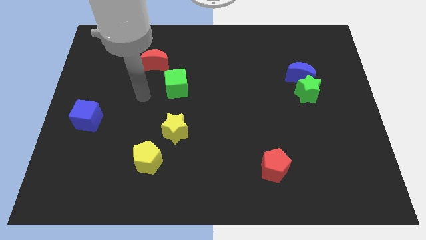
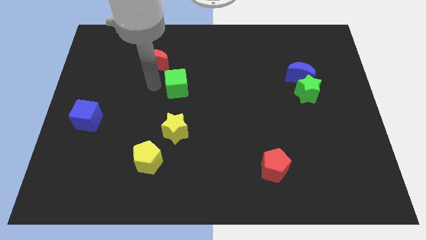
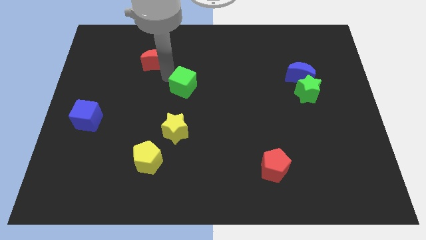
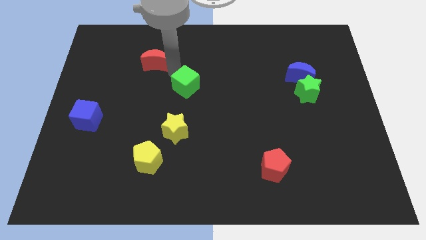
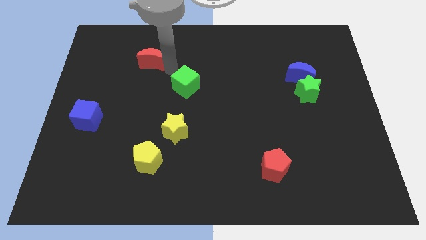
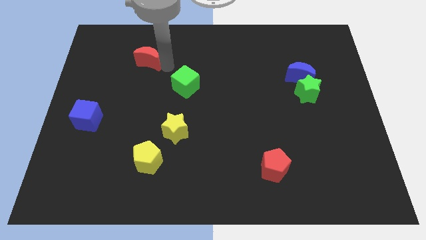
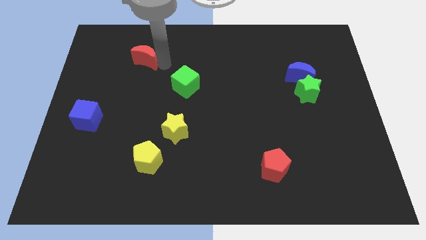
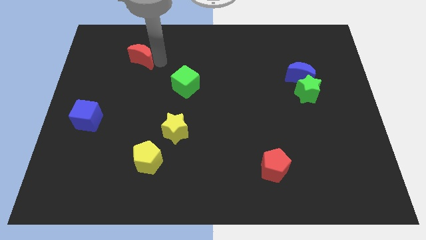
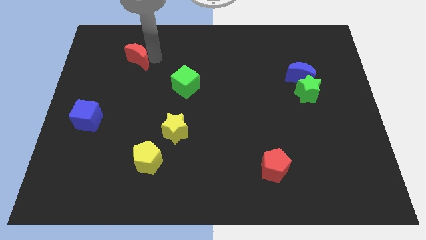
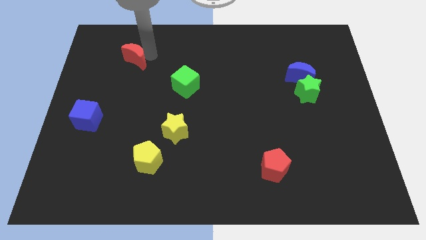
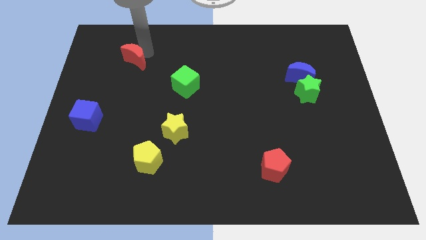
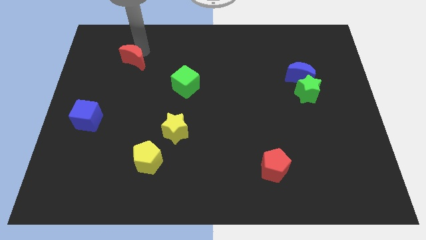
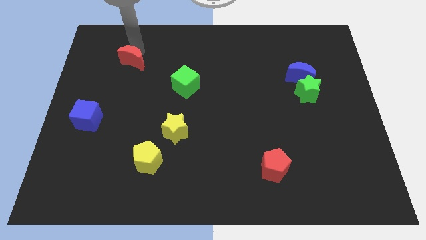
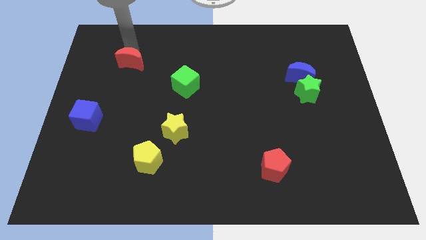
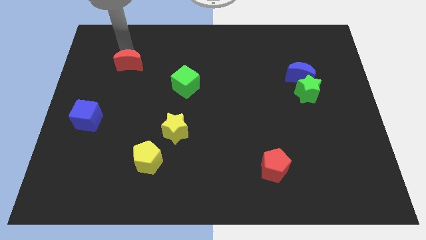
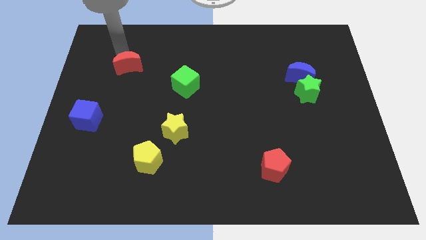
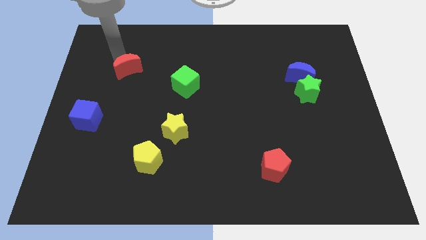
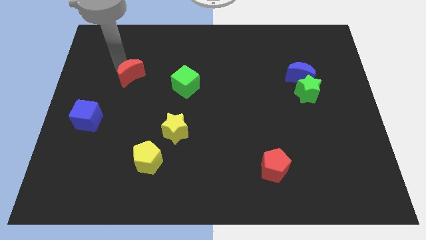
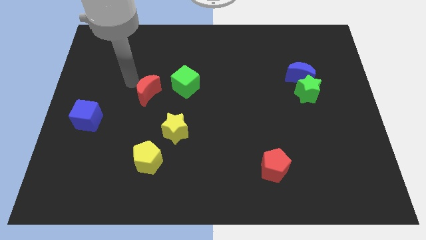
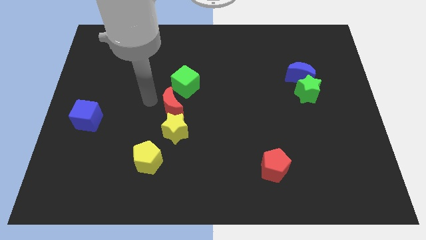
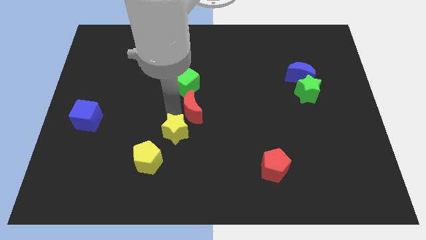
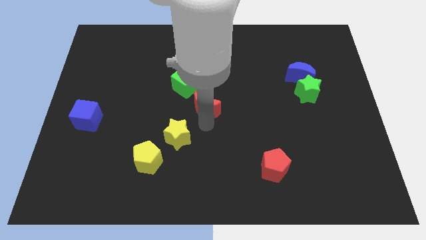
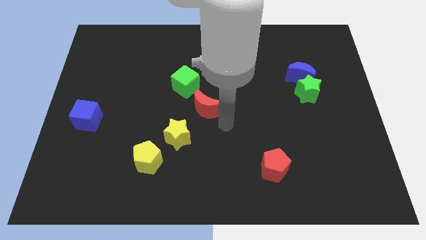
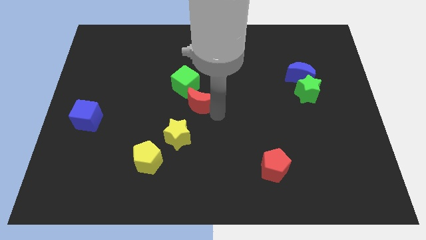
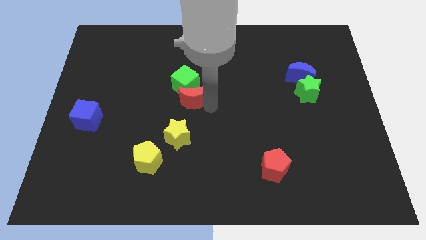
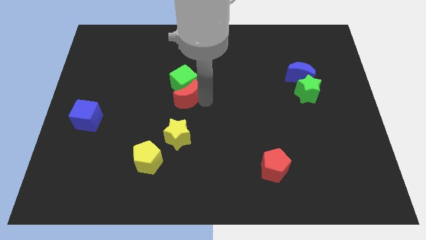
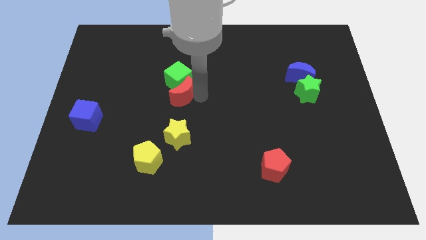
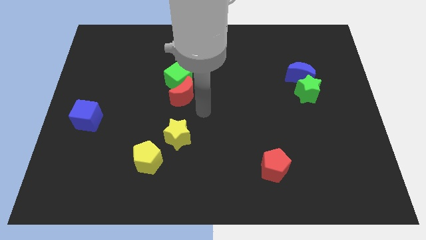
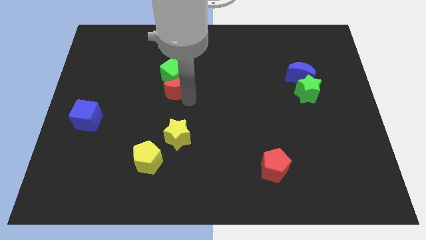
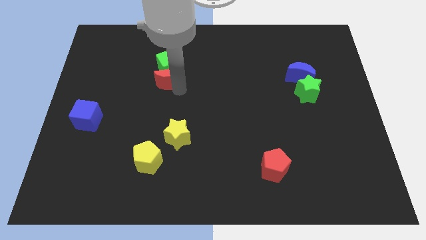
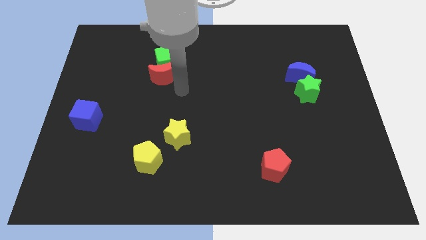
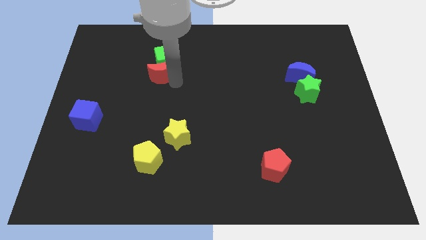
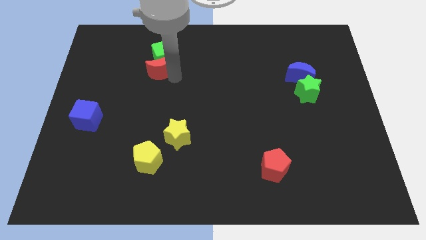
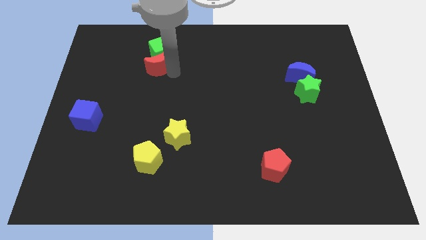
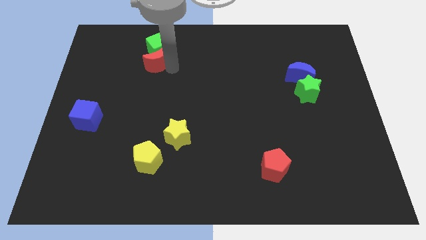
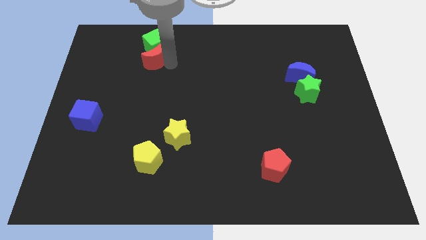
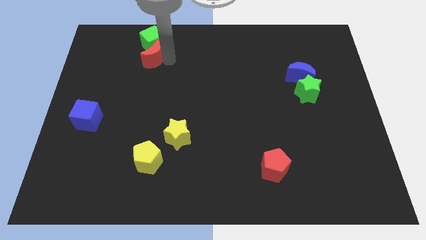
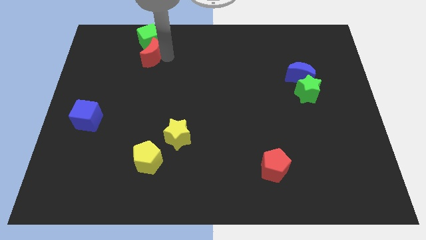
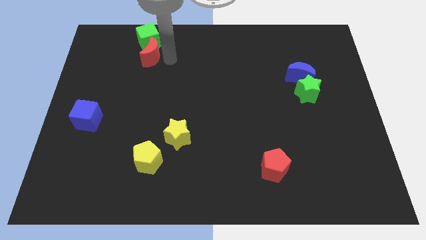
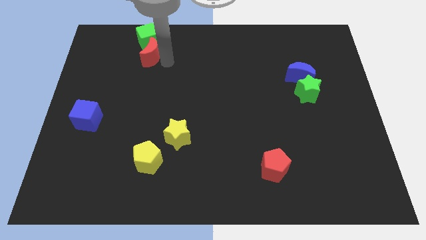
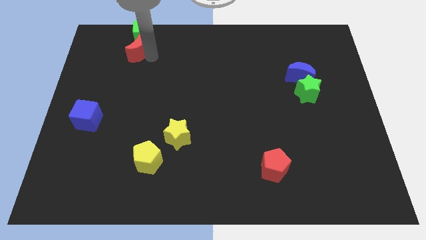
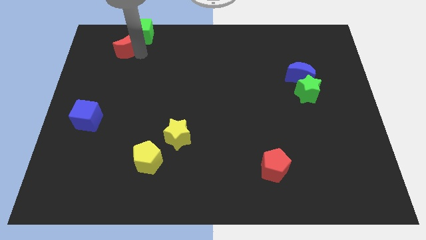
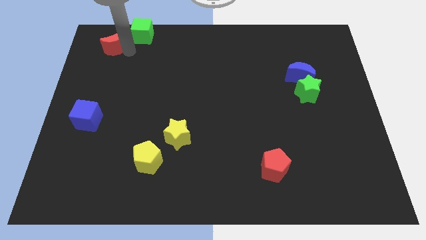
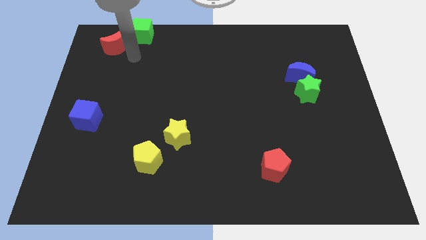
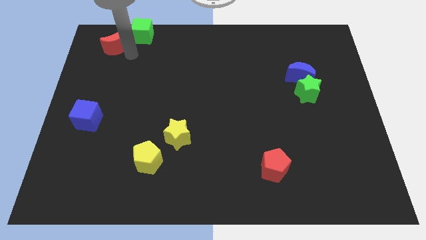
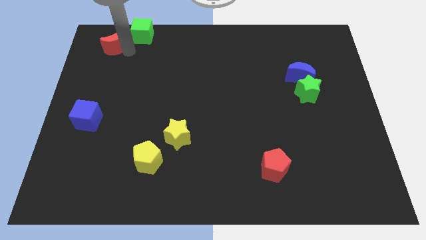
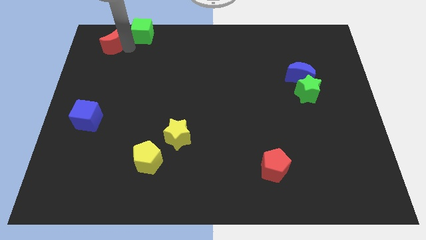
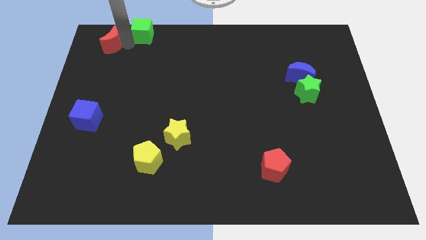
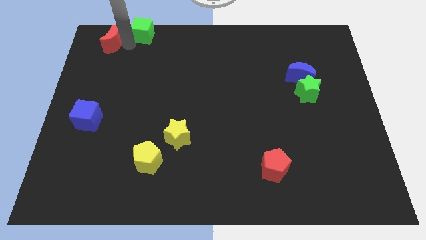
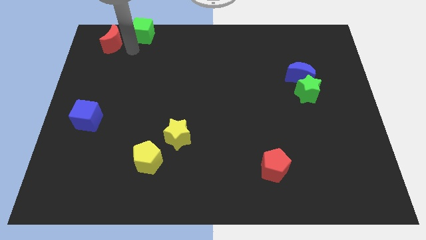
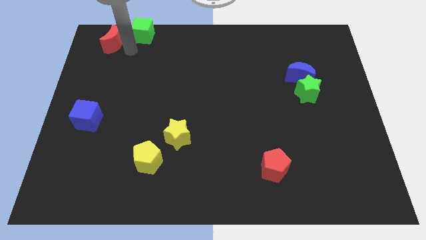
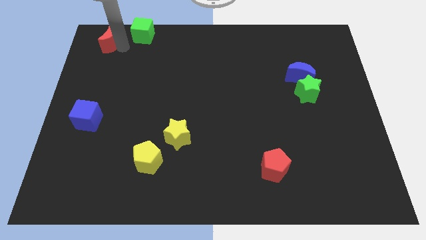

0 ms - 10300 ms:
push the red moon to the top left of the board

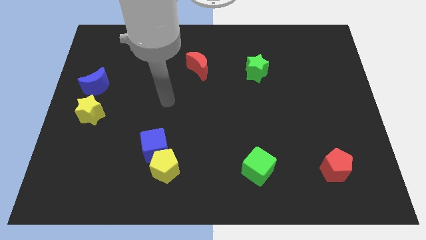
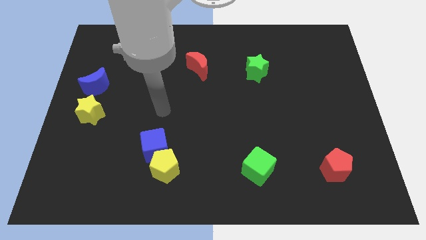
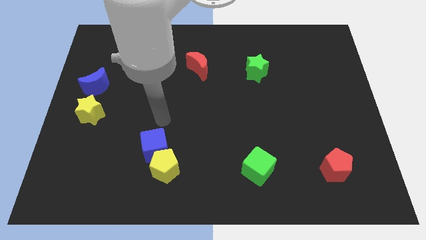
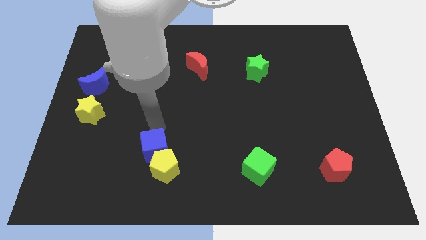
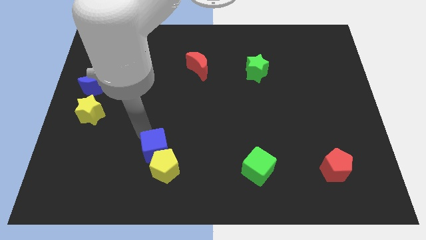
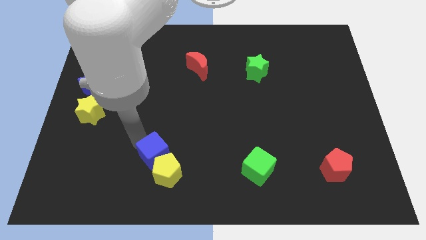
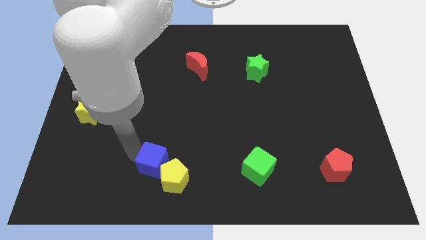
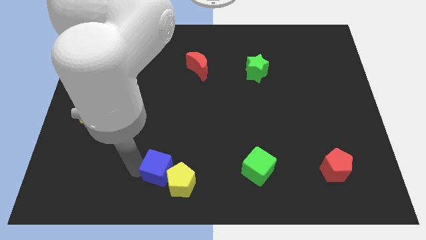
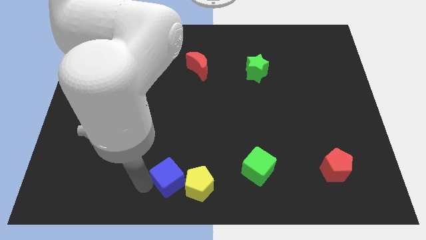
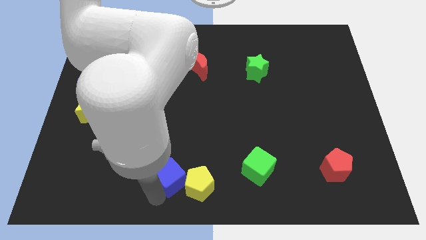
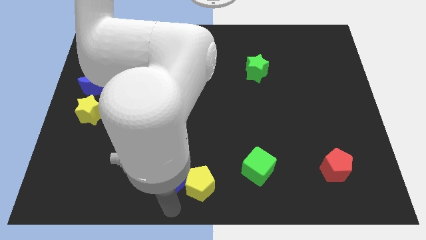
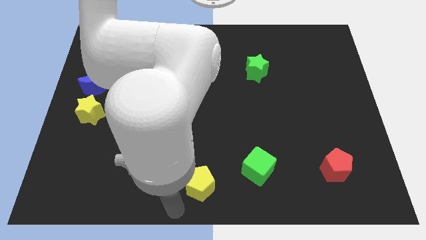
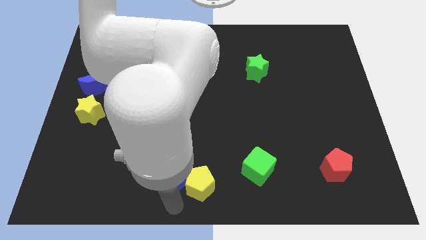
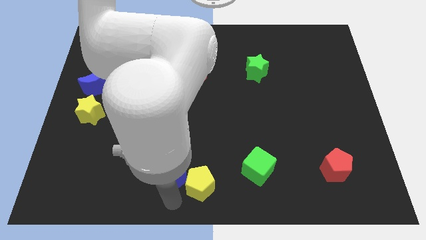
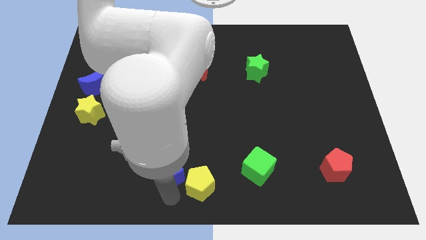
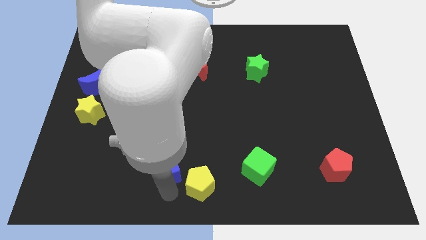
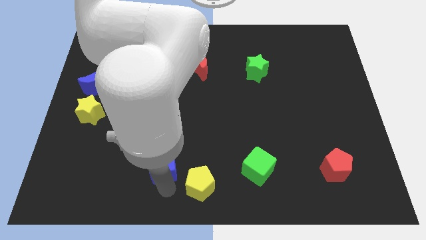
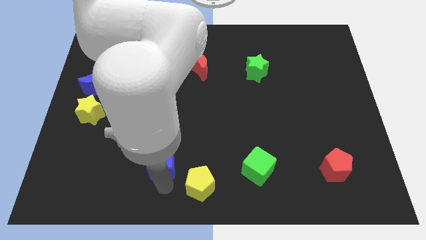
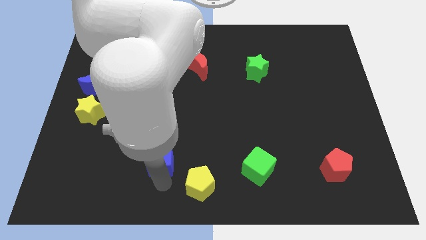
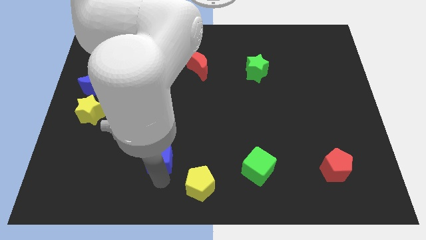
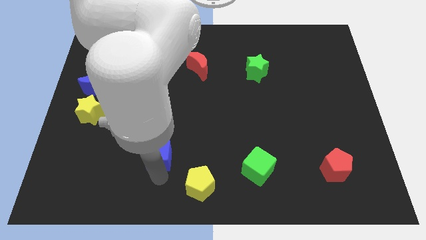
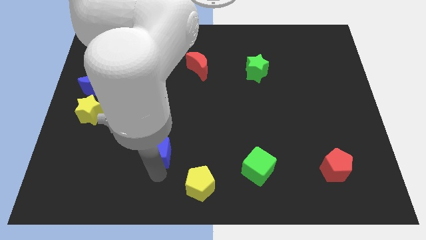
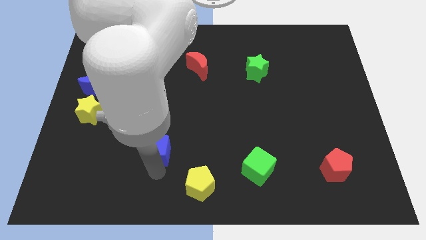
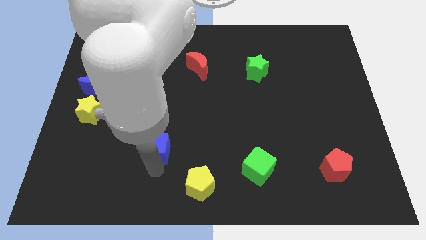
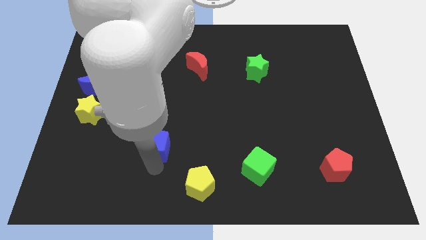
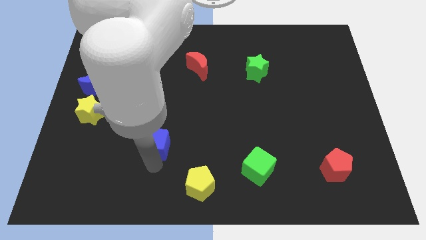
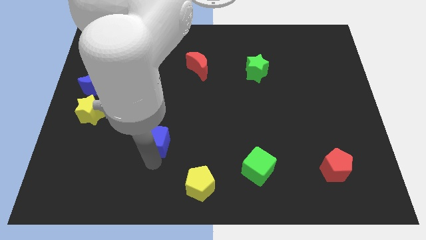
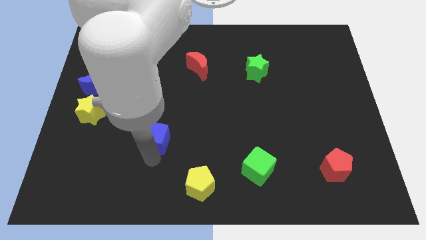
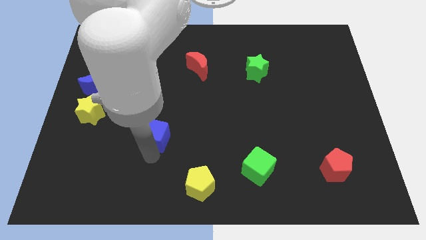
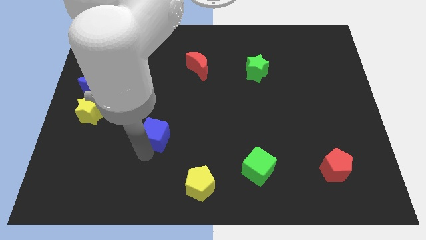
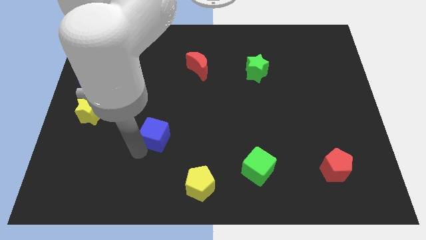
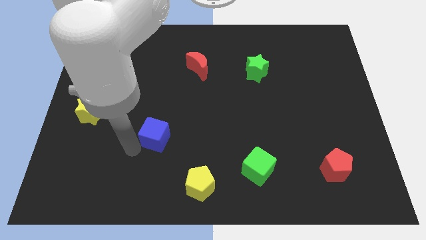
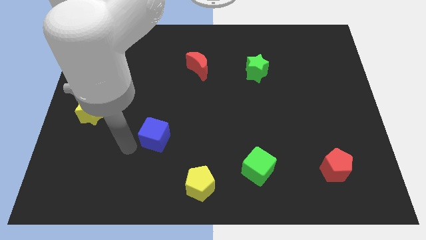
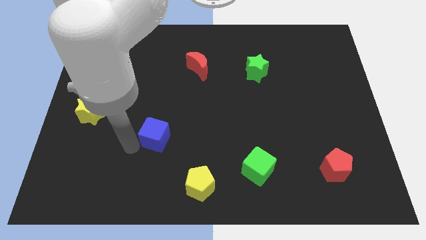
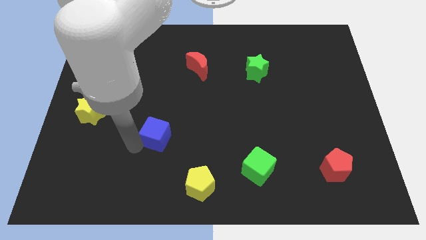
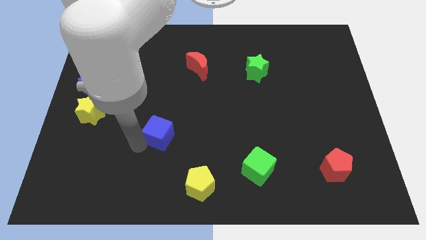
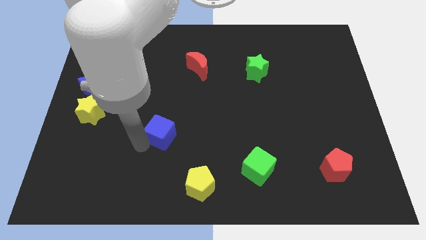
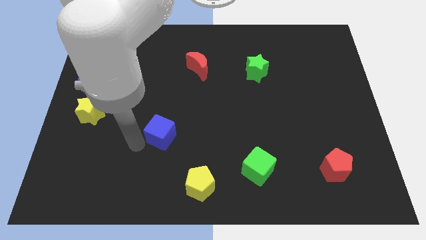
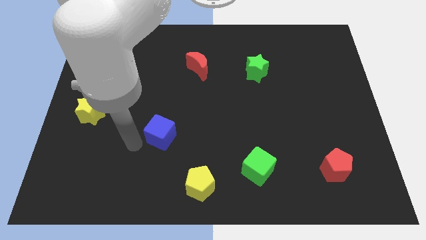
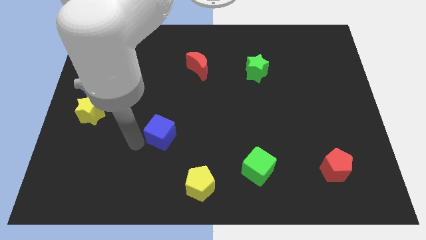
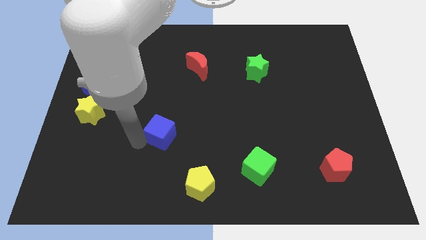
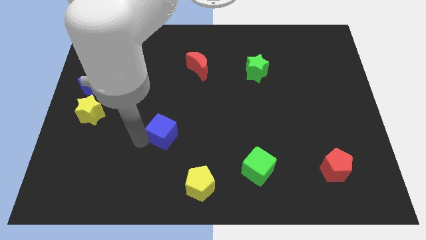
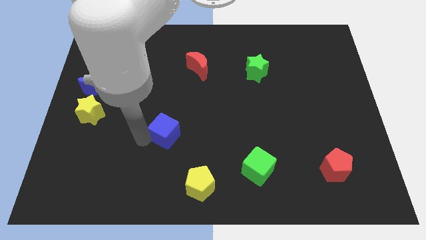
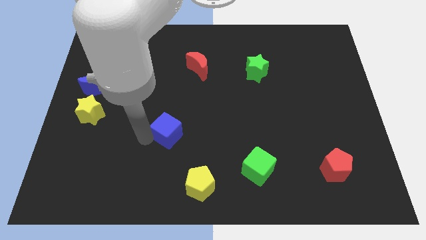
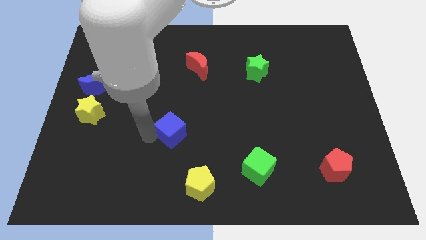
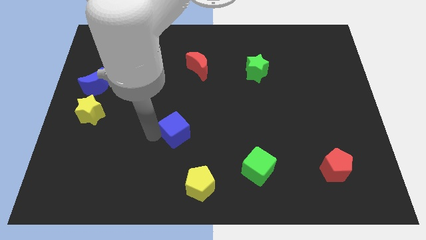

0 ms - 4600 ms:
slide the blue cube to the center of the board
